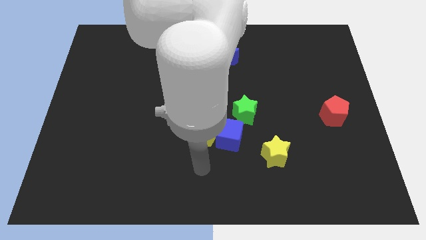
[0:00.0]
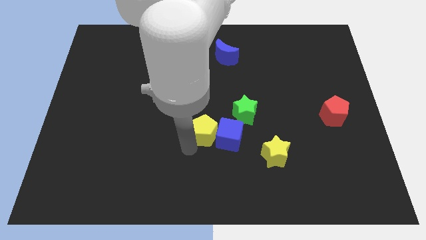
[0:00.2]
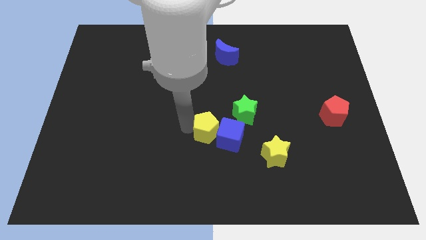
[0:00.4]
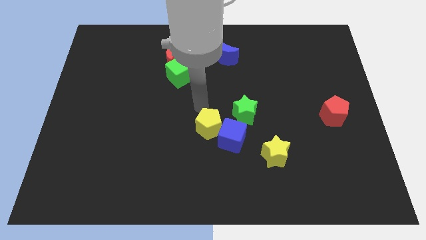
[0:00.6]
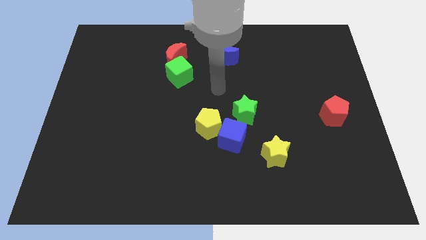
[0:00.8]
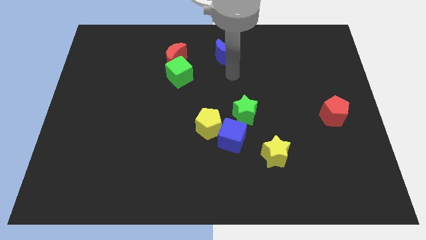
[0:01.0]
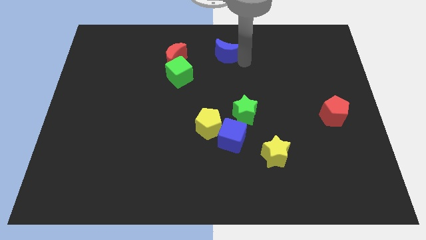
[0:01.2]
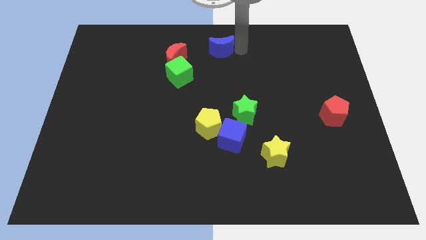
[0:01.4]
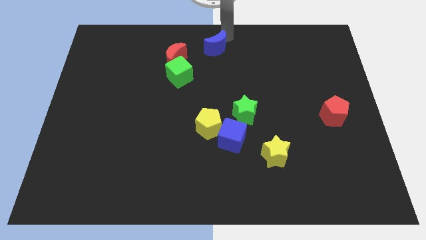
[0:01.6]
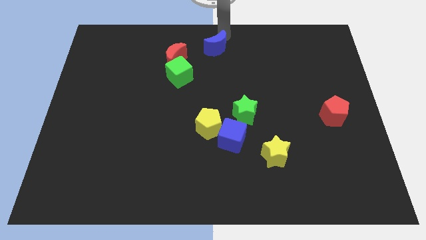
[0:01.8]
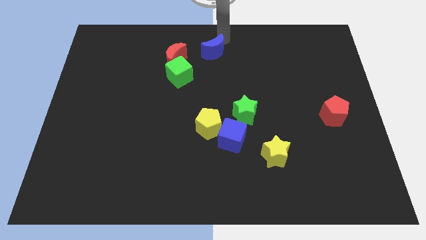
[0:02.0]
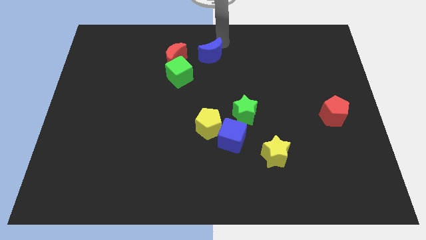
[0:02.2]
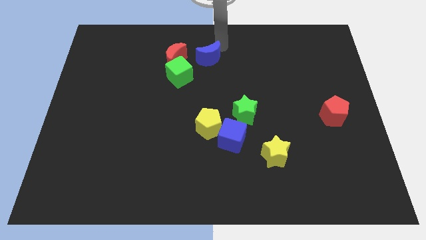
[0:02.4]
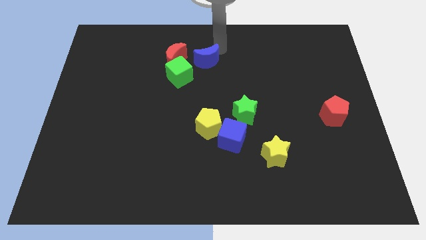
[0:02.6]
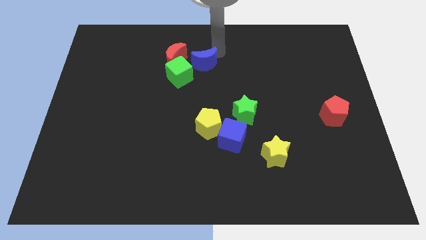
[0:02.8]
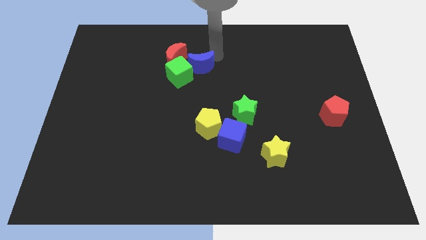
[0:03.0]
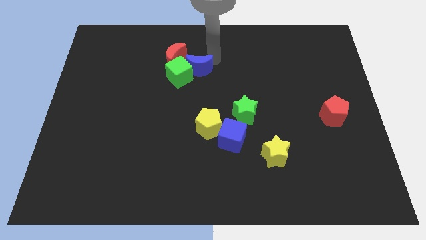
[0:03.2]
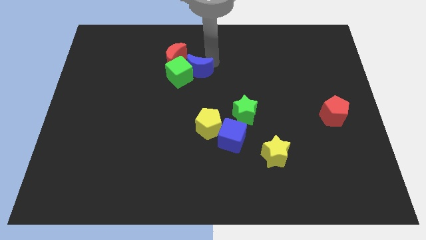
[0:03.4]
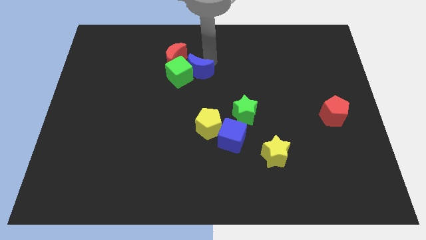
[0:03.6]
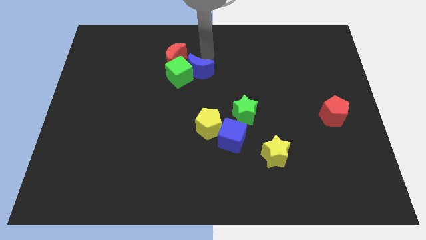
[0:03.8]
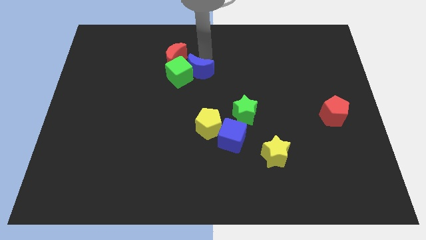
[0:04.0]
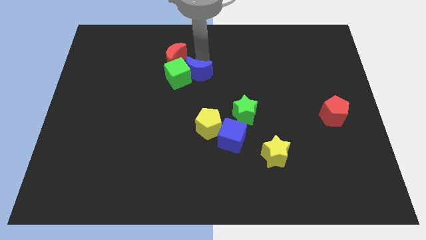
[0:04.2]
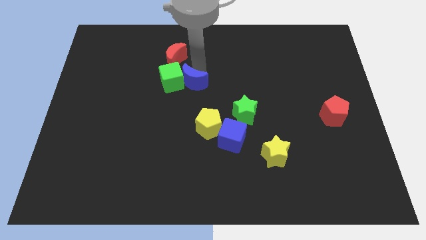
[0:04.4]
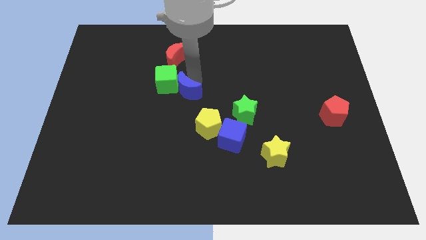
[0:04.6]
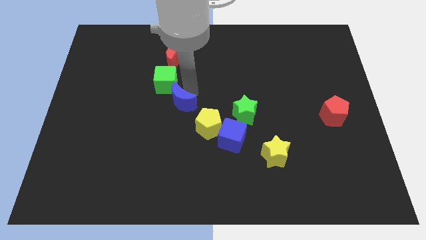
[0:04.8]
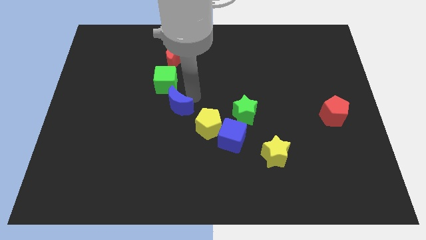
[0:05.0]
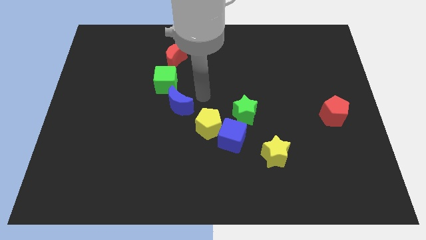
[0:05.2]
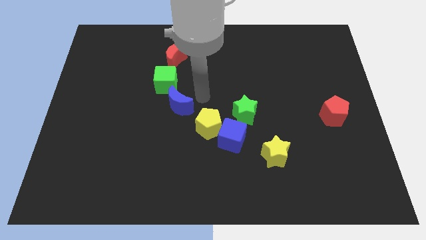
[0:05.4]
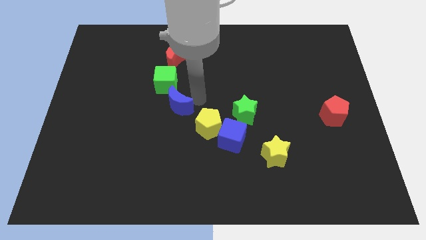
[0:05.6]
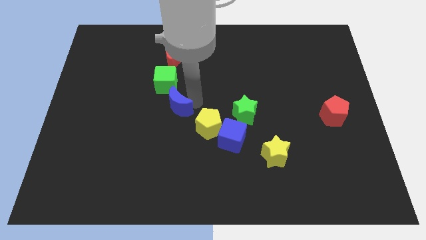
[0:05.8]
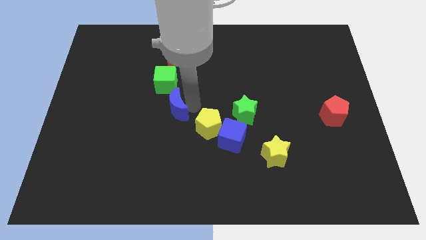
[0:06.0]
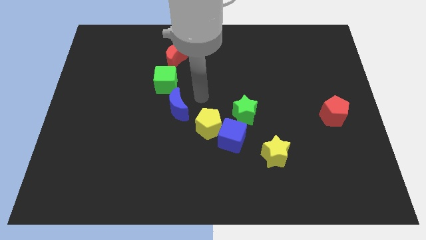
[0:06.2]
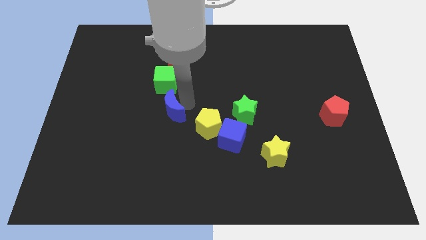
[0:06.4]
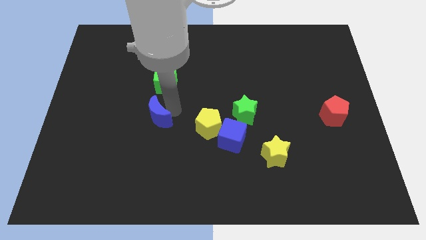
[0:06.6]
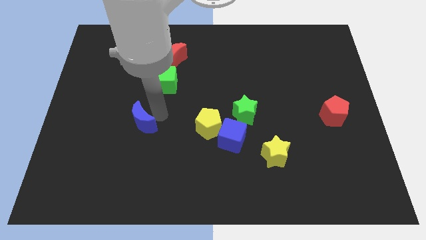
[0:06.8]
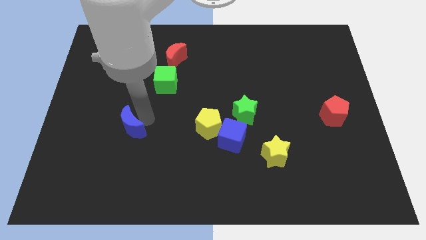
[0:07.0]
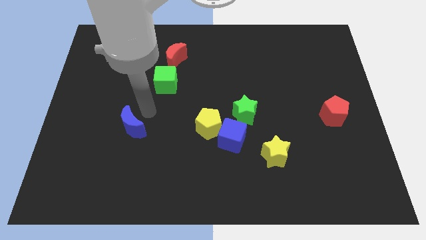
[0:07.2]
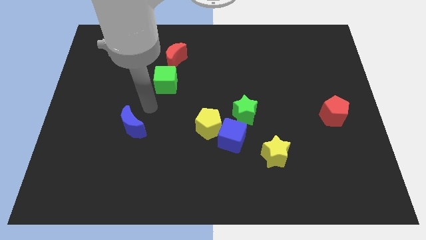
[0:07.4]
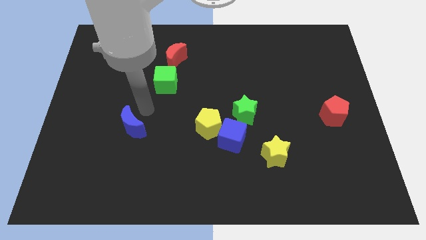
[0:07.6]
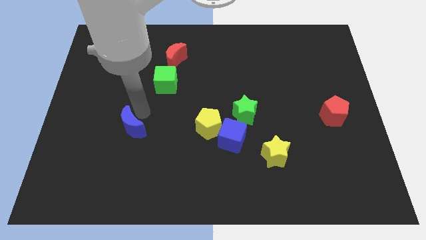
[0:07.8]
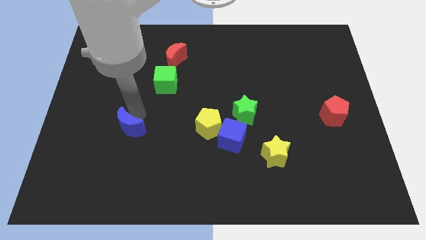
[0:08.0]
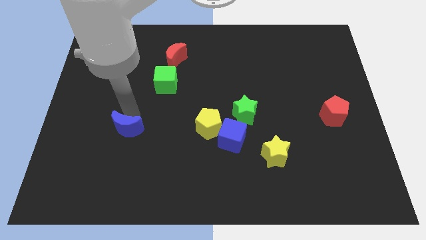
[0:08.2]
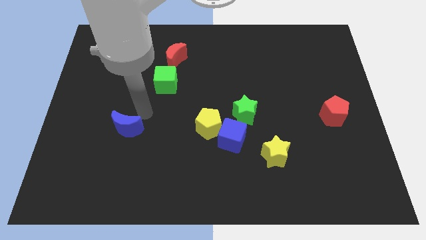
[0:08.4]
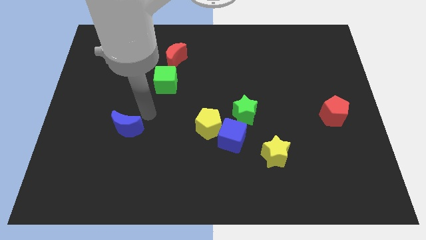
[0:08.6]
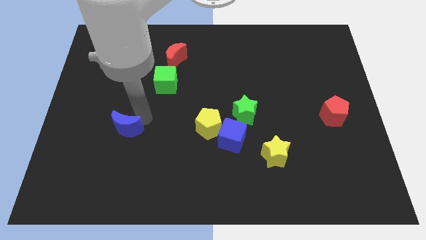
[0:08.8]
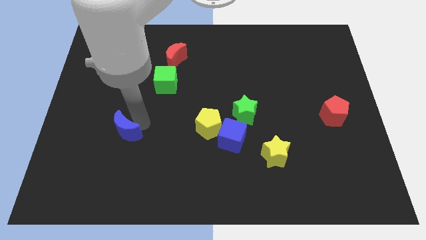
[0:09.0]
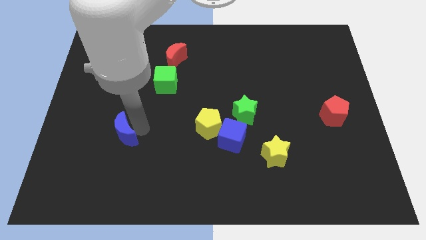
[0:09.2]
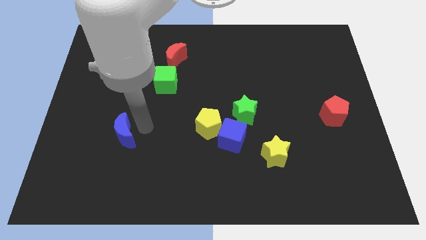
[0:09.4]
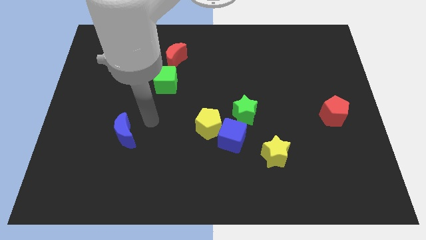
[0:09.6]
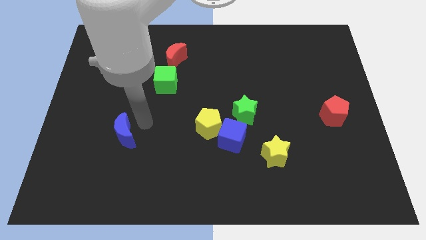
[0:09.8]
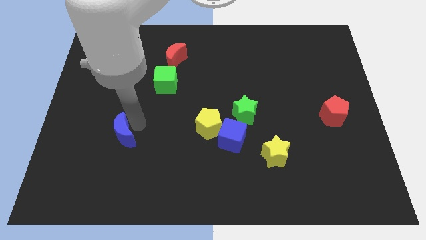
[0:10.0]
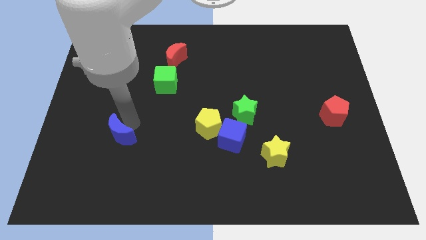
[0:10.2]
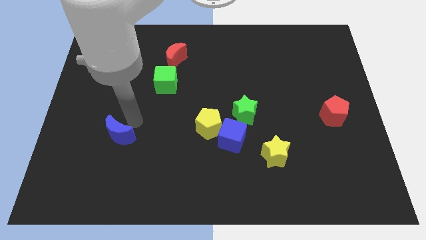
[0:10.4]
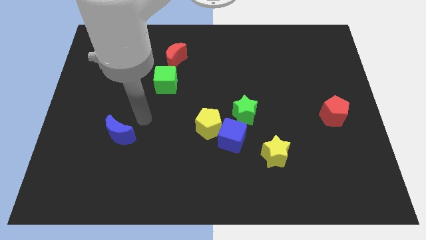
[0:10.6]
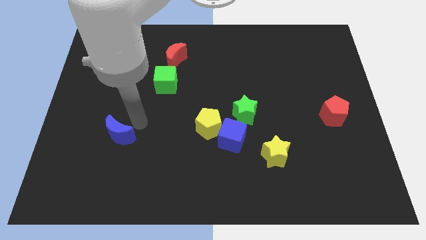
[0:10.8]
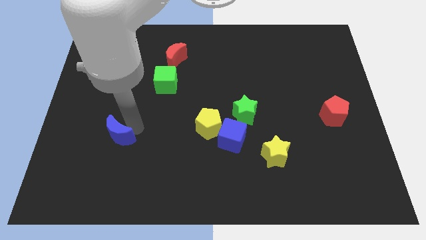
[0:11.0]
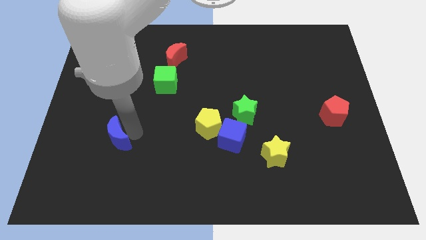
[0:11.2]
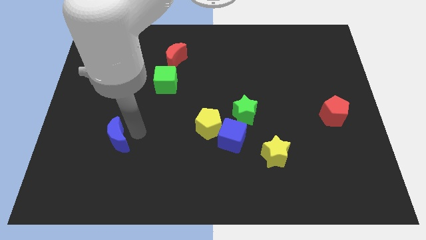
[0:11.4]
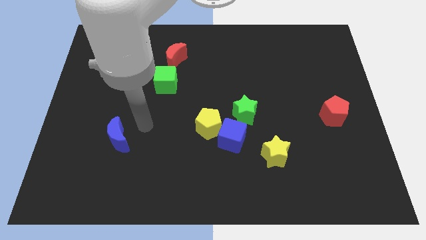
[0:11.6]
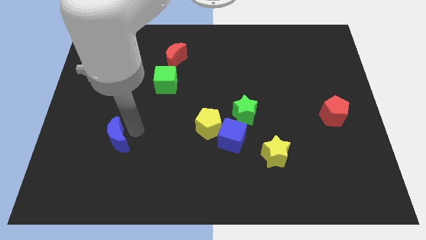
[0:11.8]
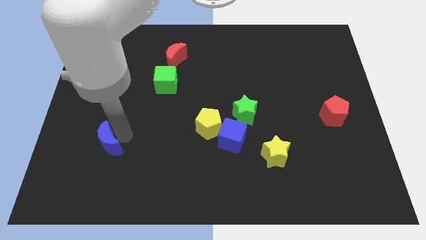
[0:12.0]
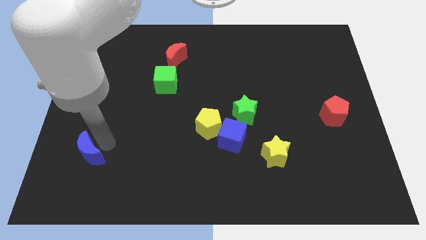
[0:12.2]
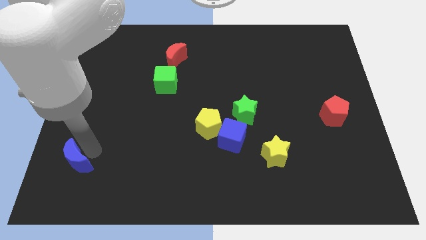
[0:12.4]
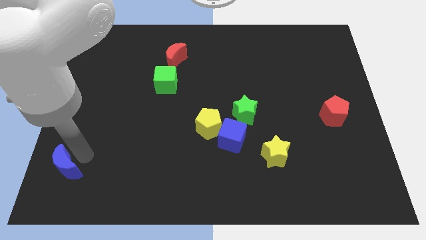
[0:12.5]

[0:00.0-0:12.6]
slide the blue moon to the bottom left of the board
